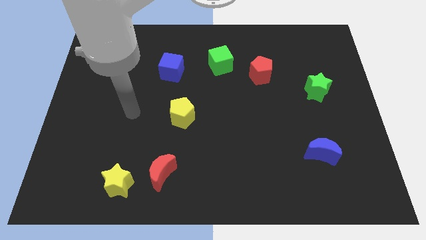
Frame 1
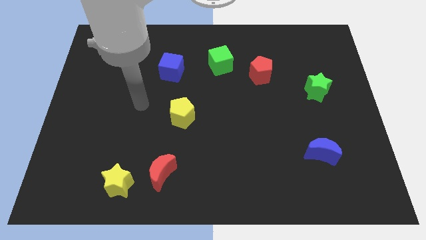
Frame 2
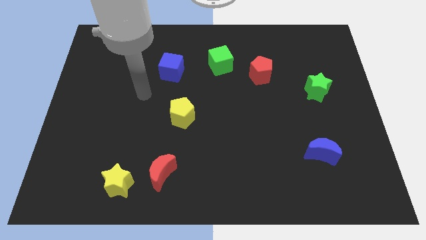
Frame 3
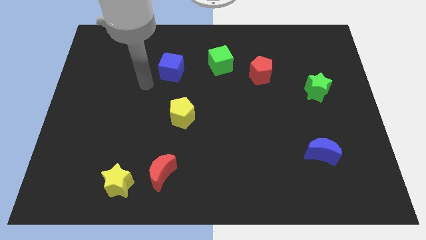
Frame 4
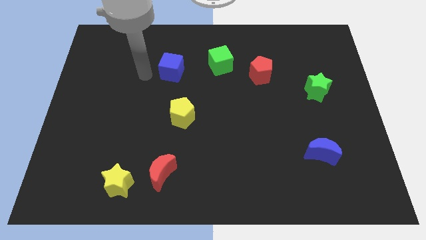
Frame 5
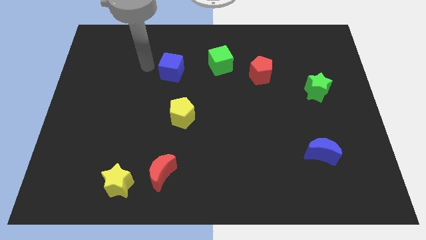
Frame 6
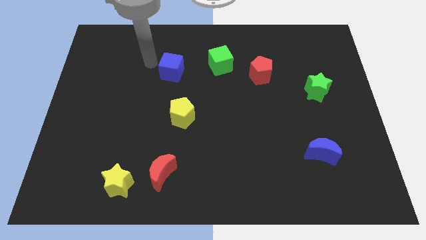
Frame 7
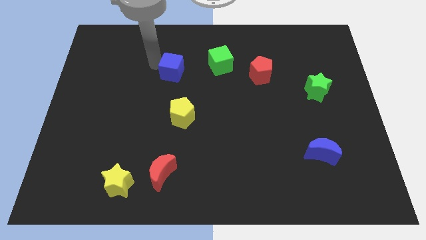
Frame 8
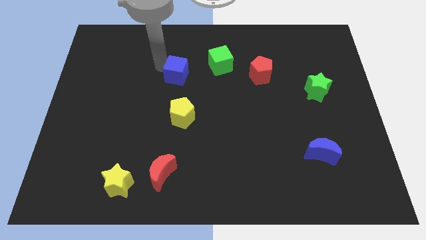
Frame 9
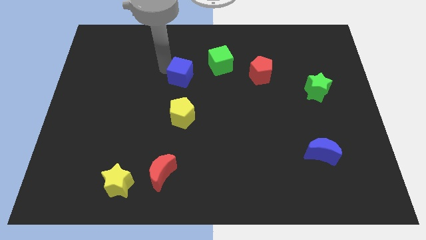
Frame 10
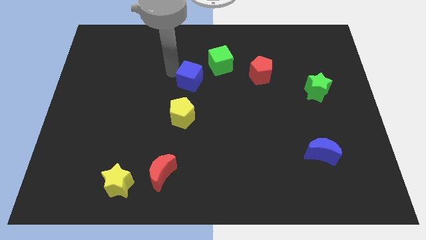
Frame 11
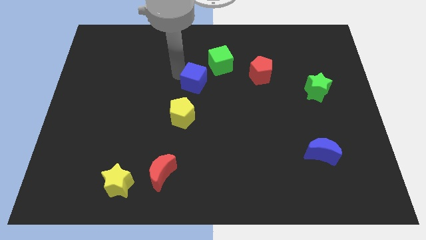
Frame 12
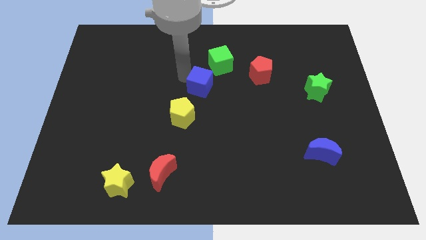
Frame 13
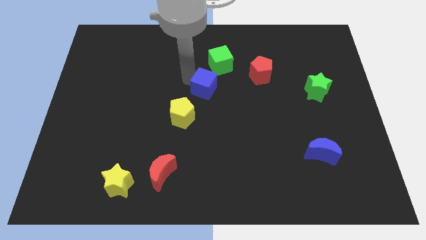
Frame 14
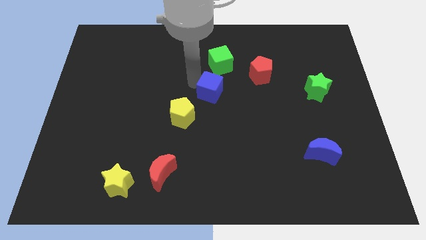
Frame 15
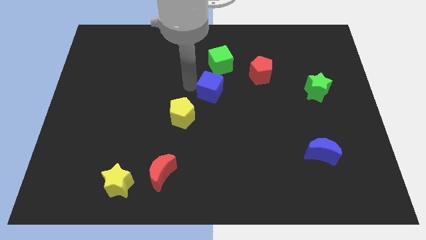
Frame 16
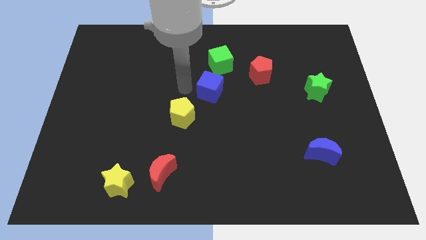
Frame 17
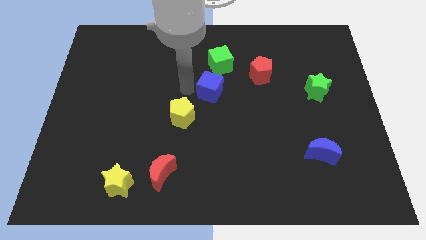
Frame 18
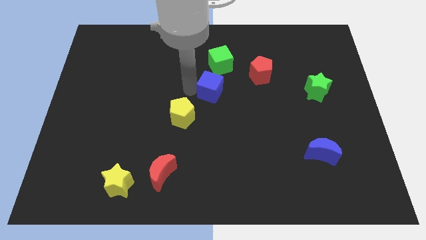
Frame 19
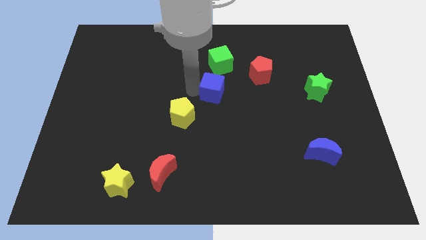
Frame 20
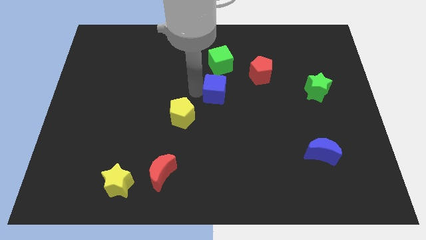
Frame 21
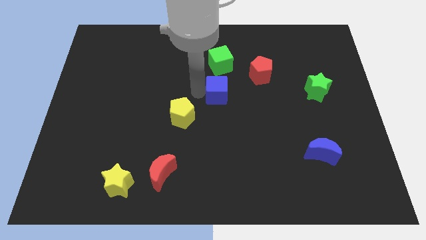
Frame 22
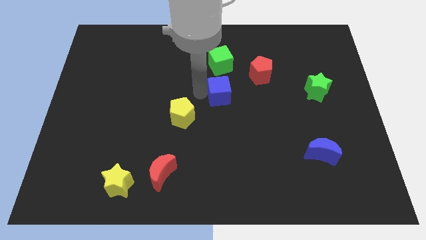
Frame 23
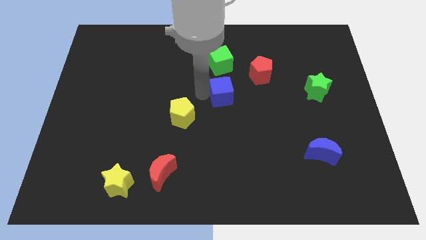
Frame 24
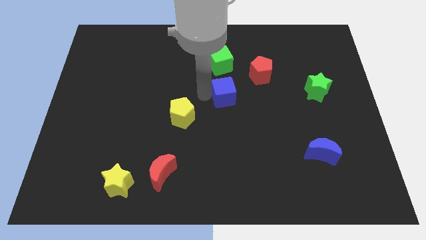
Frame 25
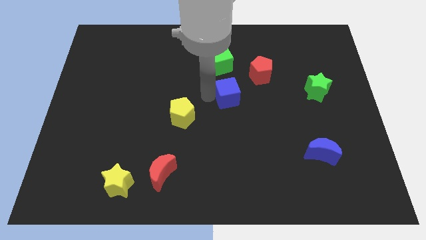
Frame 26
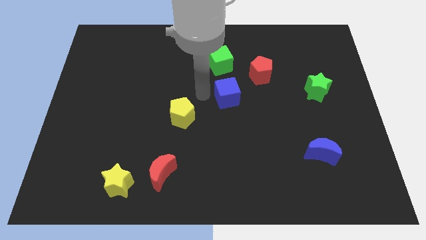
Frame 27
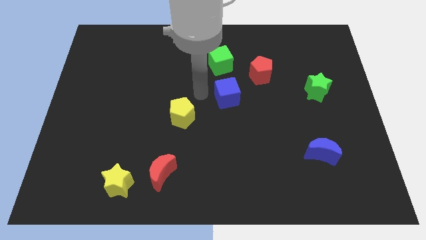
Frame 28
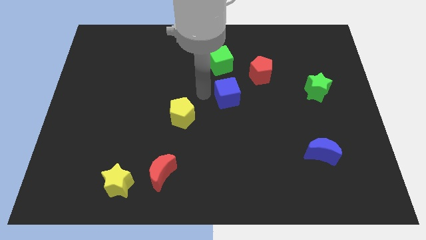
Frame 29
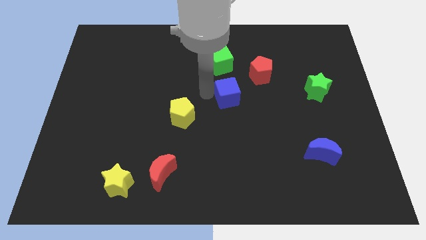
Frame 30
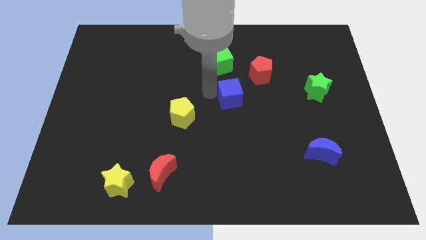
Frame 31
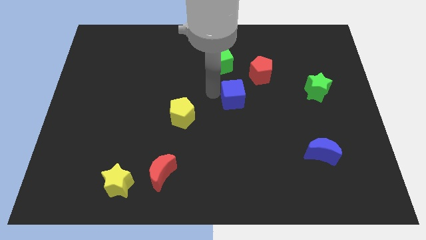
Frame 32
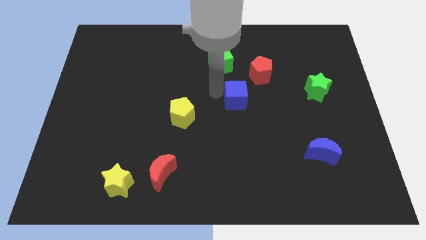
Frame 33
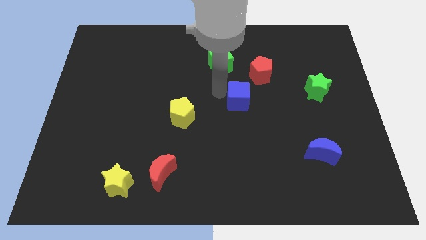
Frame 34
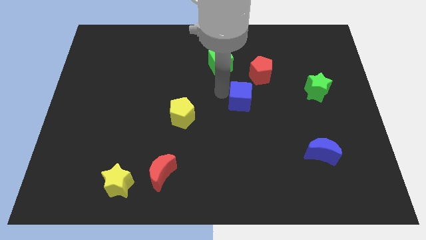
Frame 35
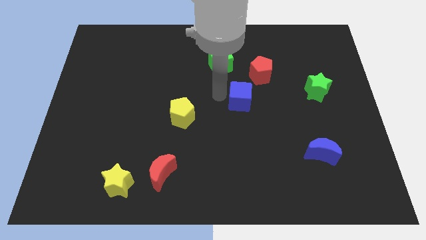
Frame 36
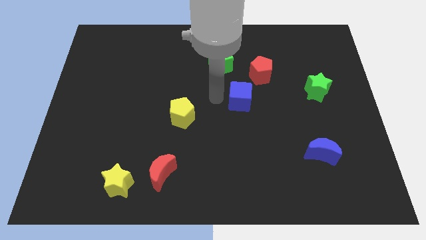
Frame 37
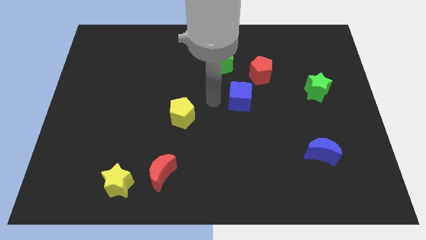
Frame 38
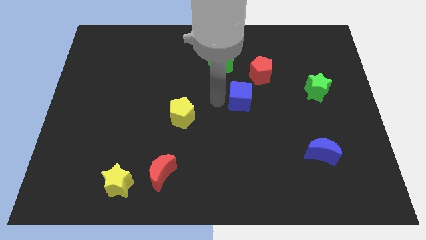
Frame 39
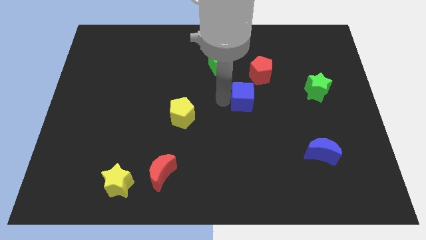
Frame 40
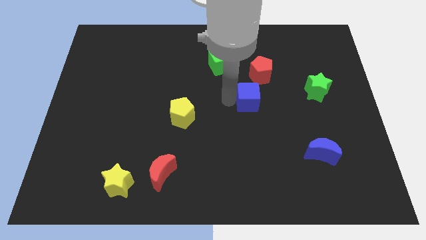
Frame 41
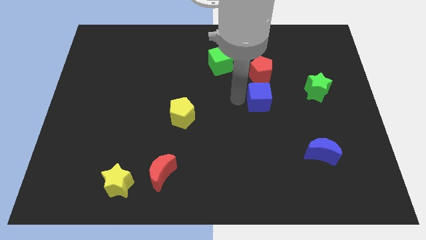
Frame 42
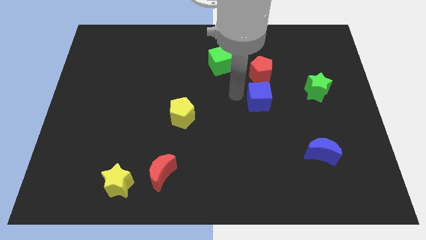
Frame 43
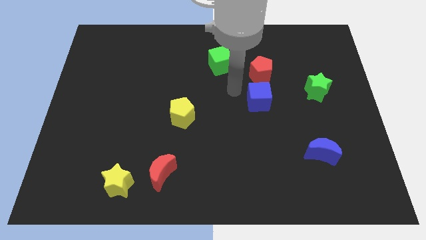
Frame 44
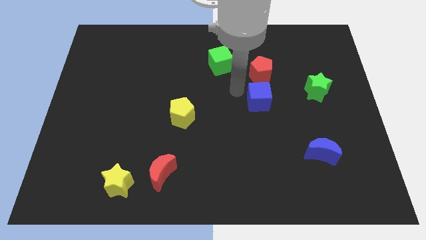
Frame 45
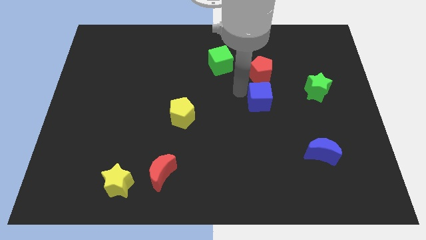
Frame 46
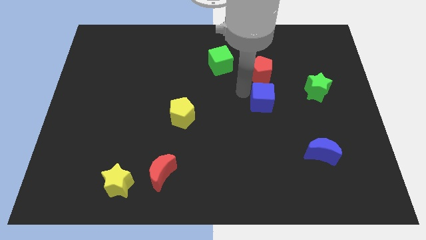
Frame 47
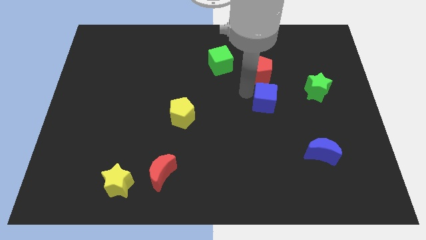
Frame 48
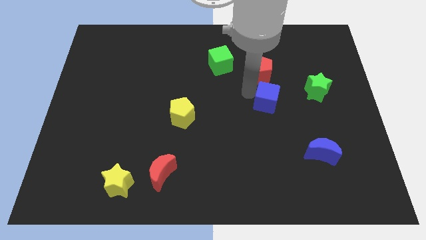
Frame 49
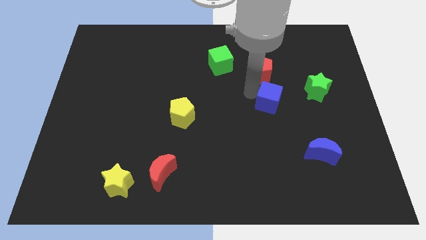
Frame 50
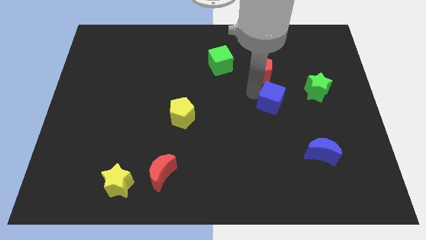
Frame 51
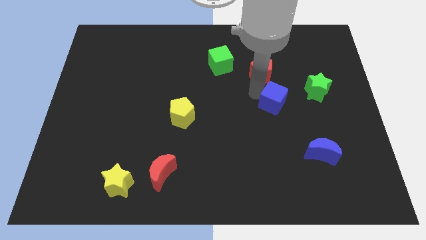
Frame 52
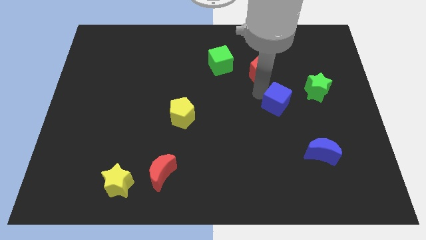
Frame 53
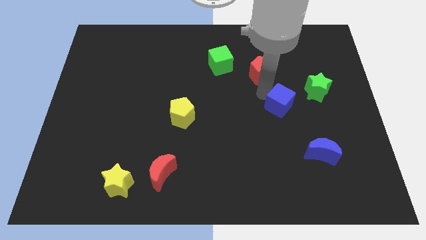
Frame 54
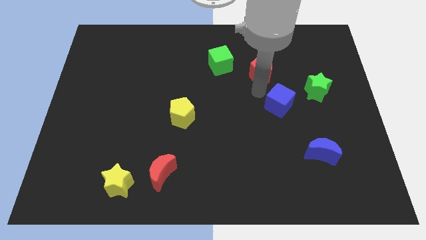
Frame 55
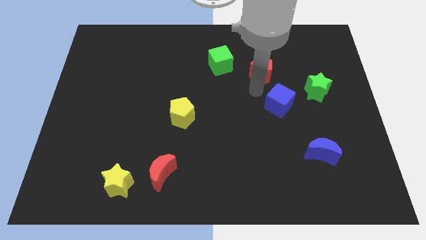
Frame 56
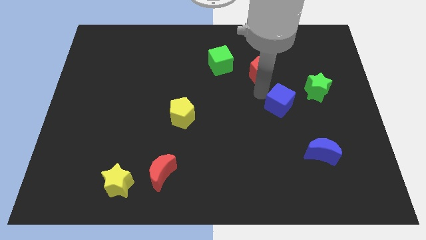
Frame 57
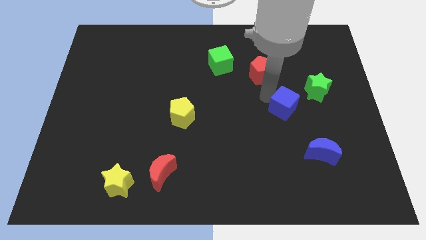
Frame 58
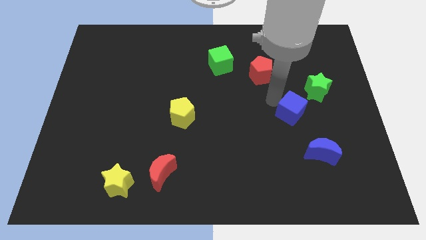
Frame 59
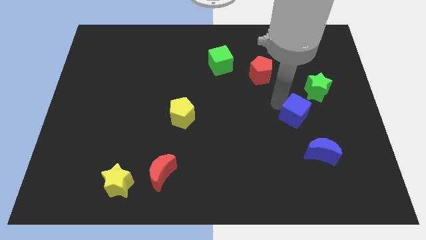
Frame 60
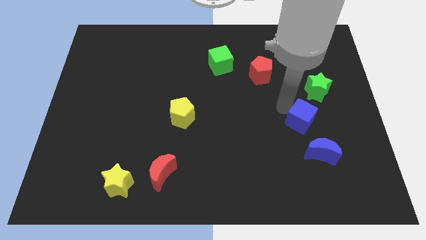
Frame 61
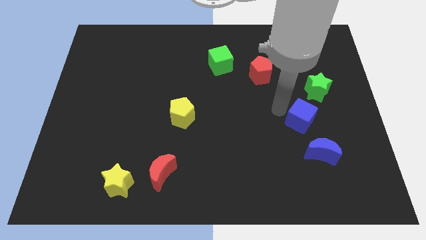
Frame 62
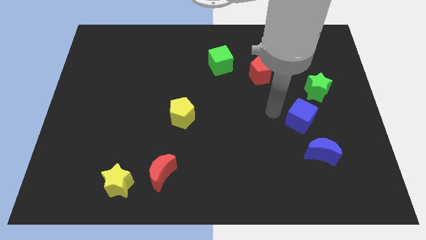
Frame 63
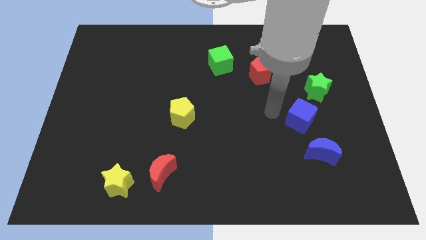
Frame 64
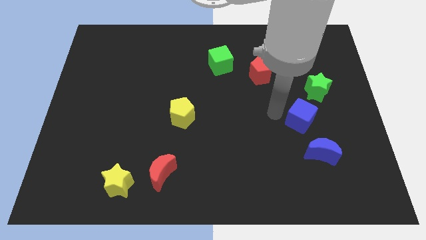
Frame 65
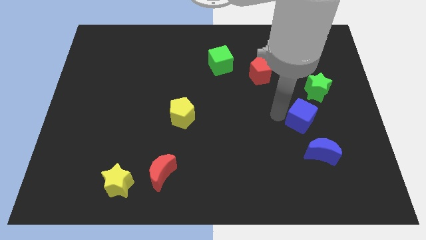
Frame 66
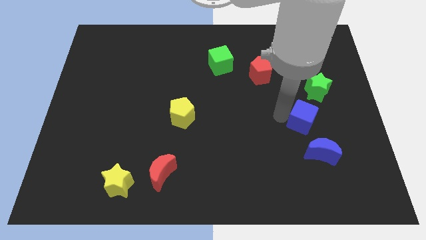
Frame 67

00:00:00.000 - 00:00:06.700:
put the blue cube to the bottom of the green star

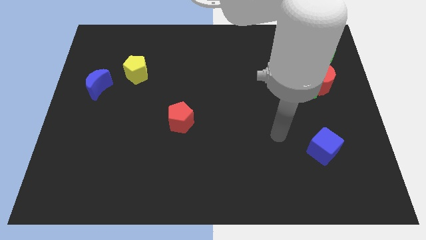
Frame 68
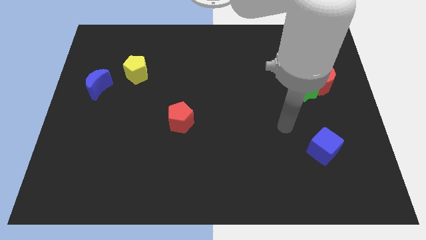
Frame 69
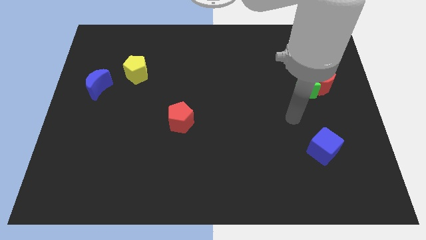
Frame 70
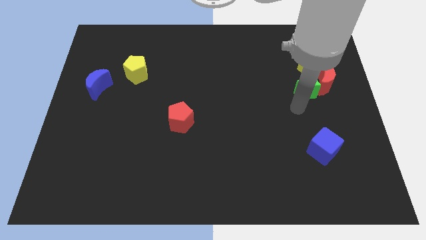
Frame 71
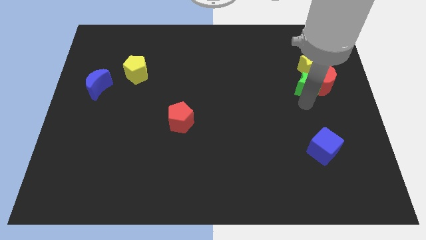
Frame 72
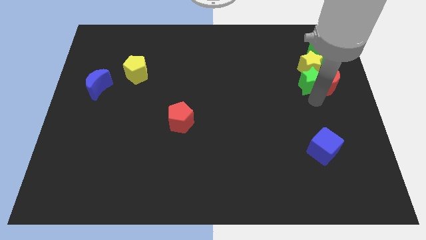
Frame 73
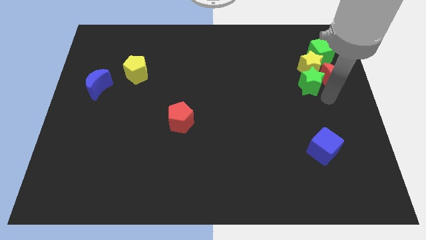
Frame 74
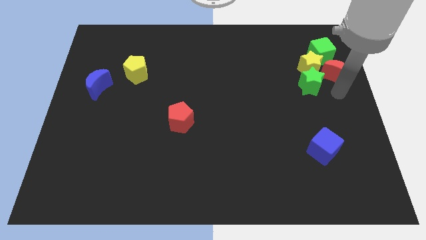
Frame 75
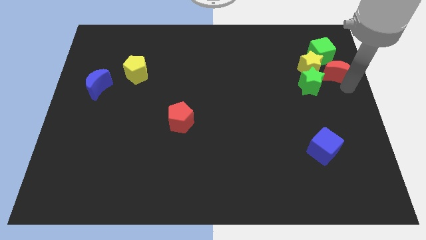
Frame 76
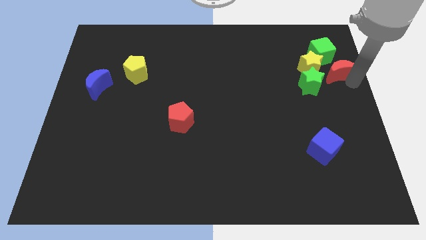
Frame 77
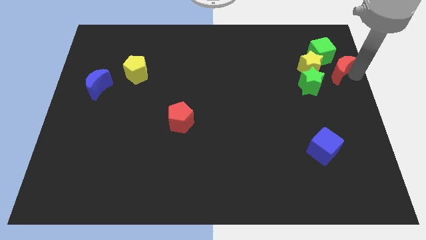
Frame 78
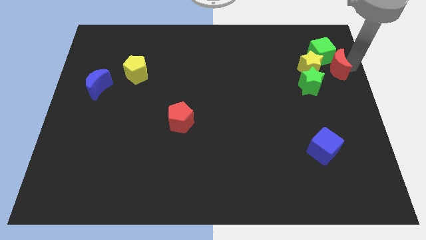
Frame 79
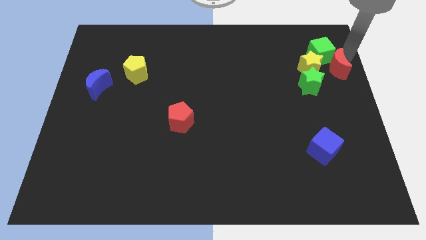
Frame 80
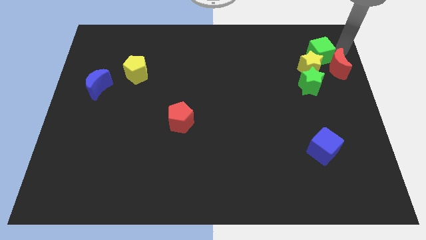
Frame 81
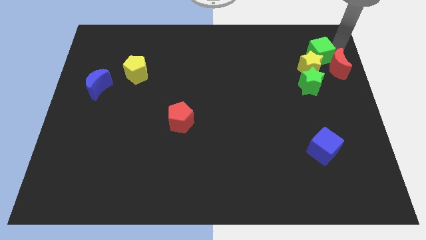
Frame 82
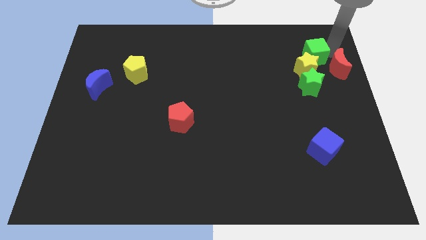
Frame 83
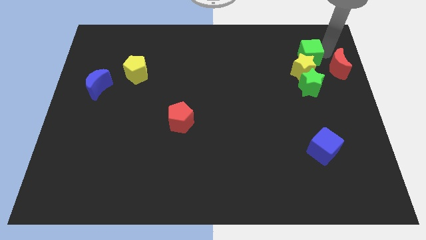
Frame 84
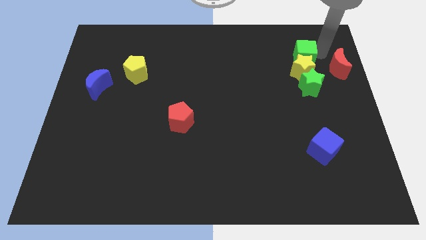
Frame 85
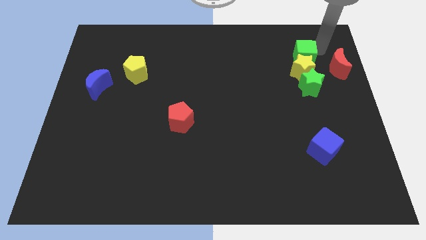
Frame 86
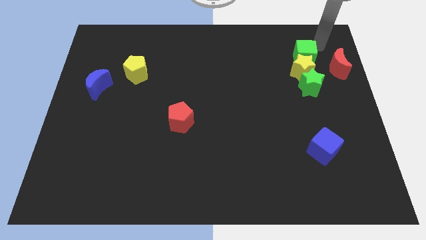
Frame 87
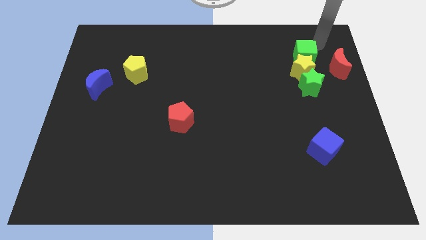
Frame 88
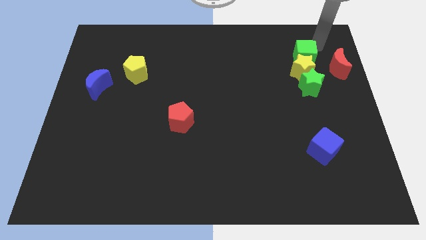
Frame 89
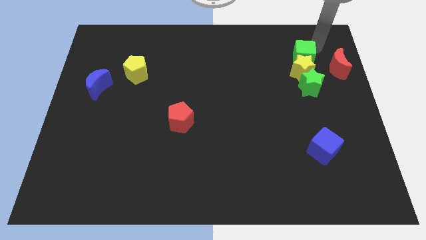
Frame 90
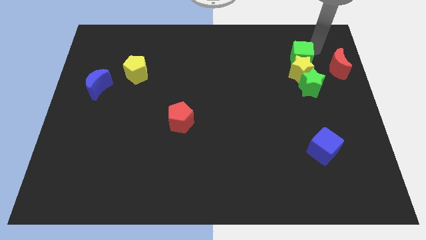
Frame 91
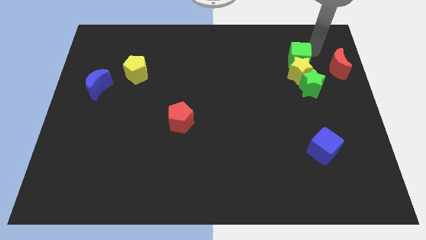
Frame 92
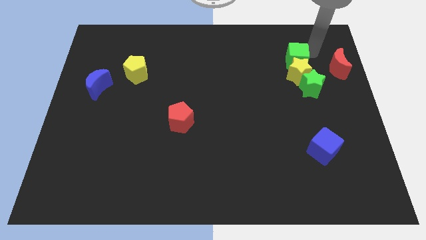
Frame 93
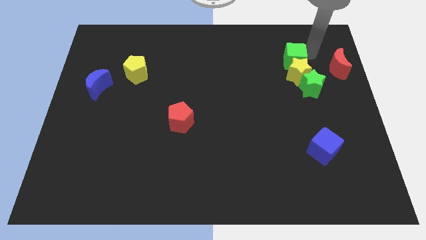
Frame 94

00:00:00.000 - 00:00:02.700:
put the green cube to the top left of the green star
